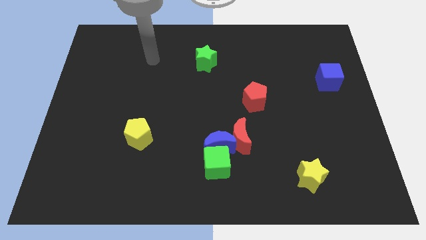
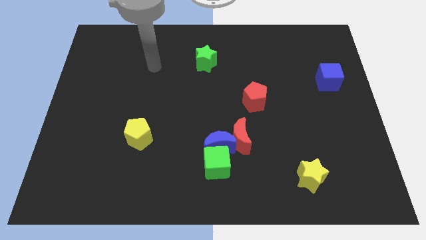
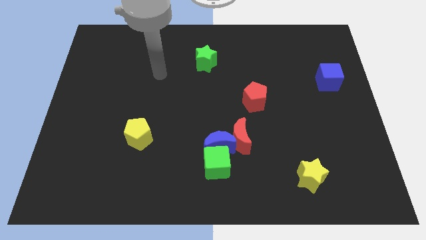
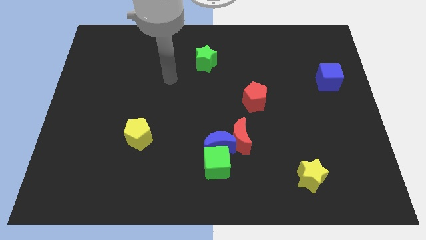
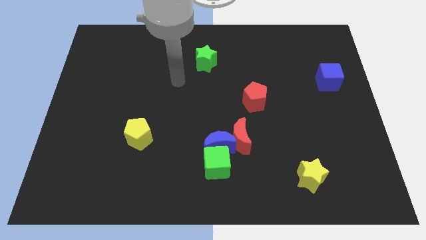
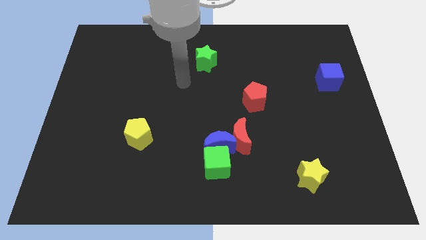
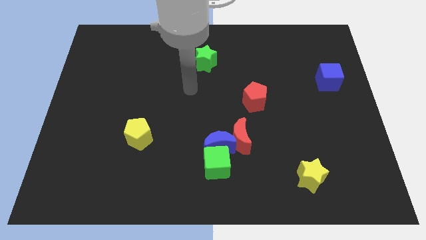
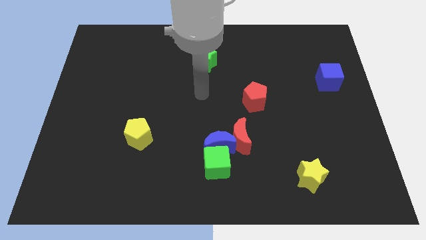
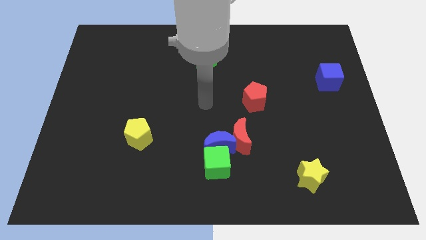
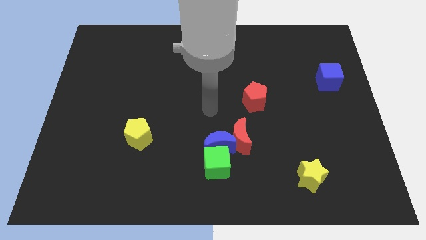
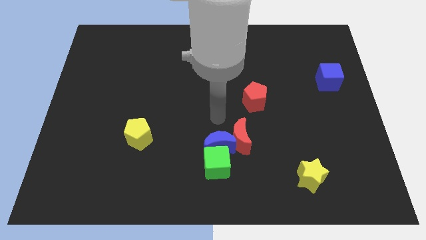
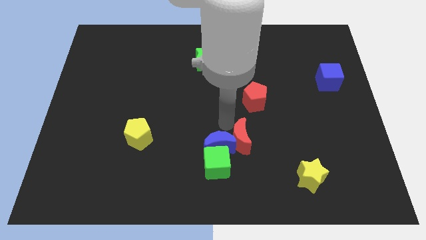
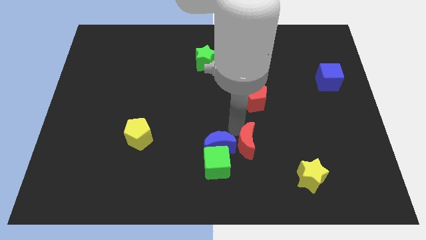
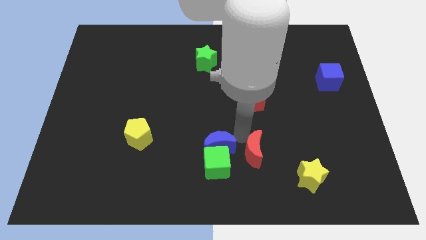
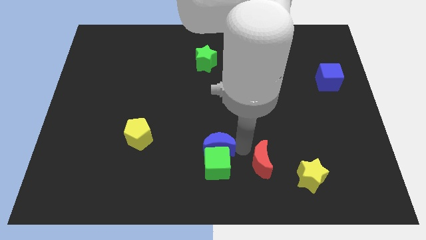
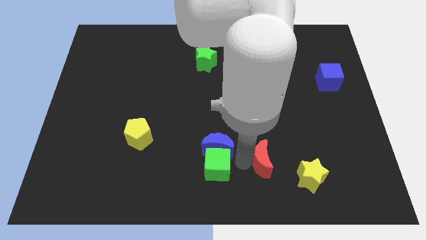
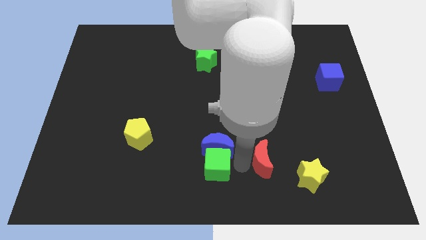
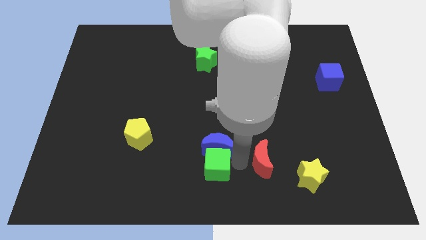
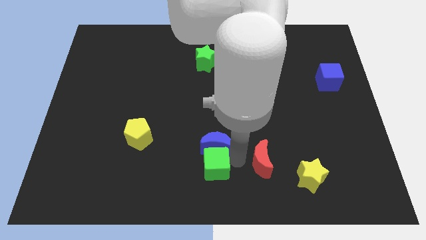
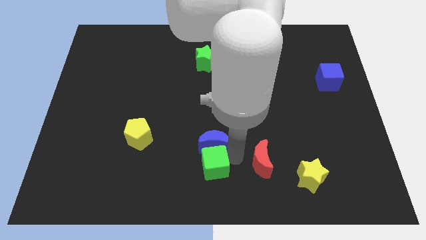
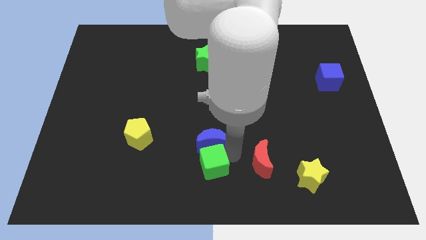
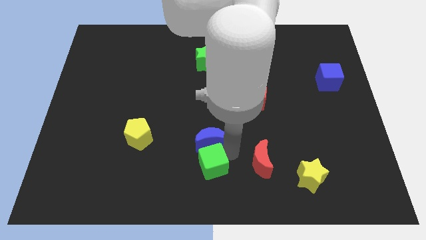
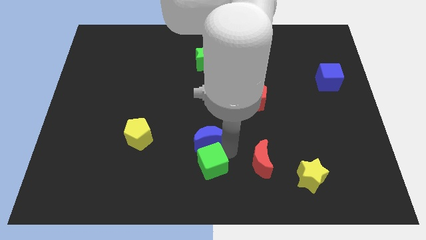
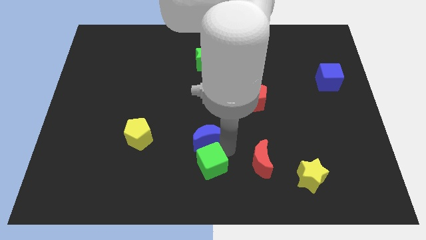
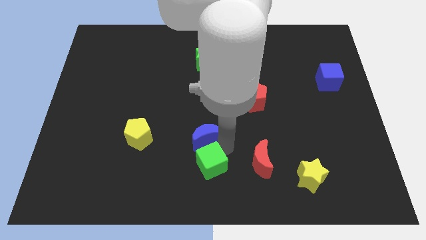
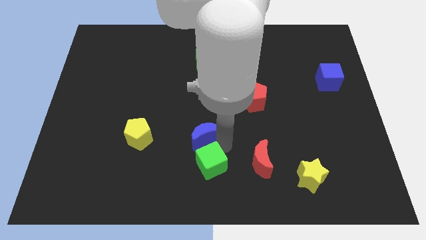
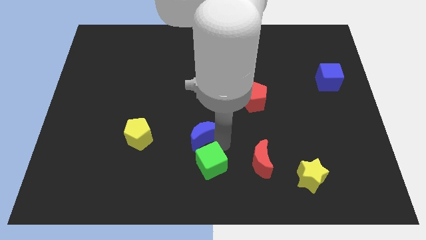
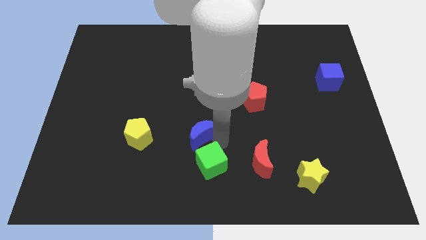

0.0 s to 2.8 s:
pull the blue moon apart from the green cube and red moon

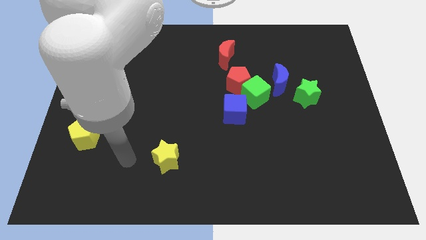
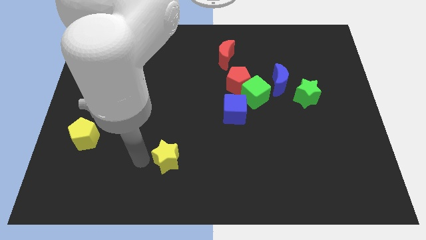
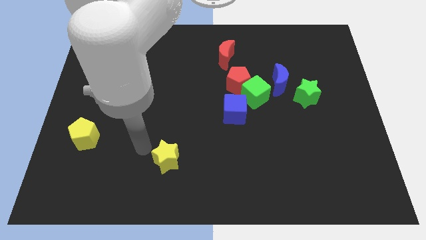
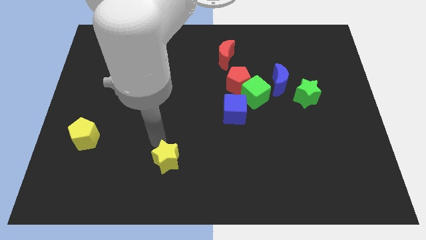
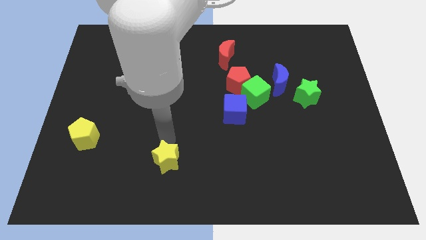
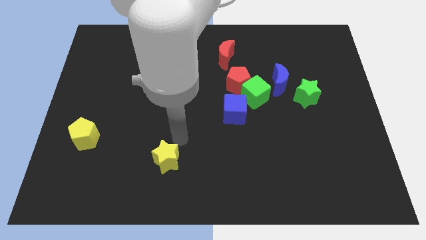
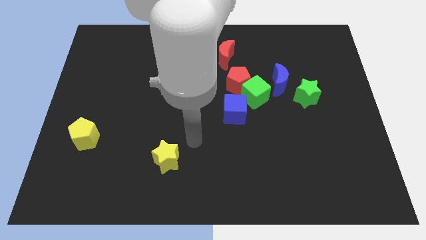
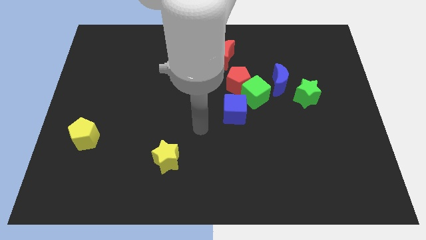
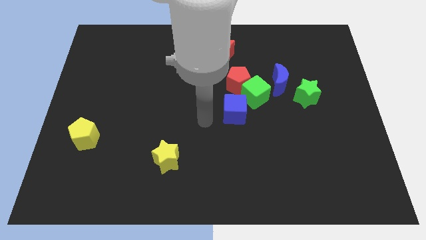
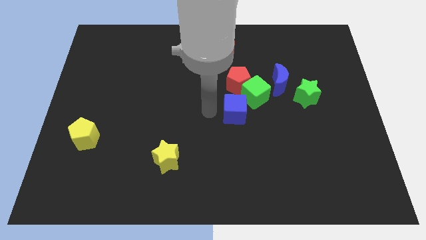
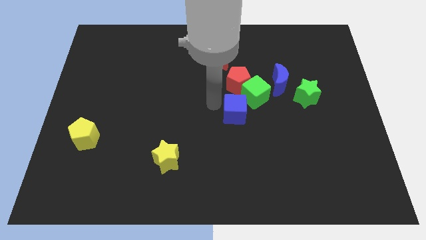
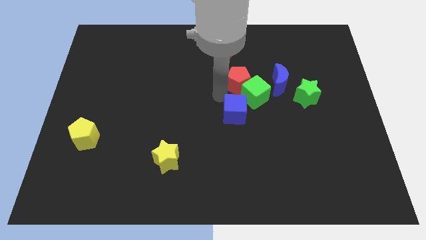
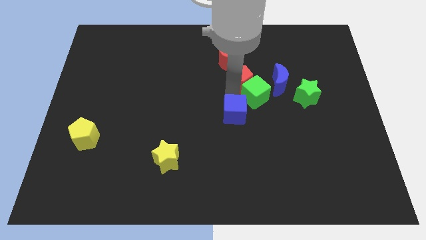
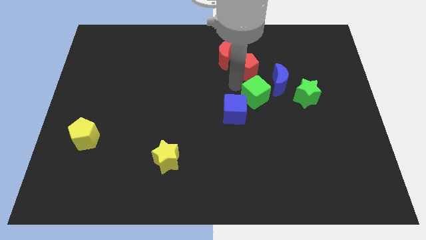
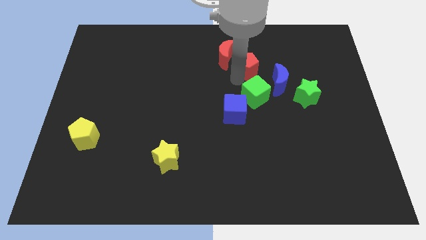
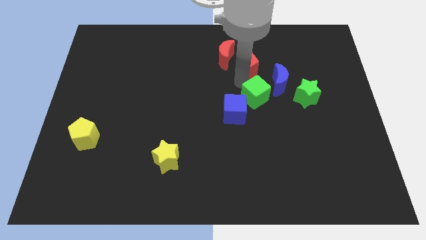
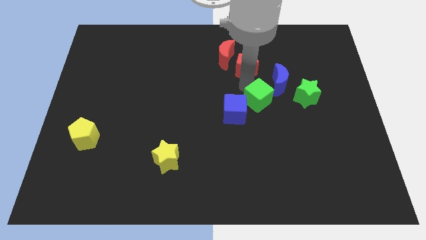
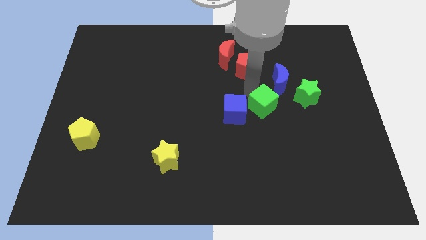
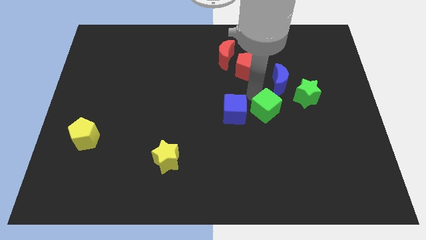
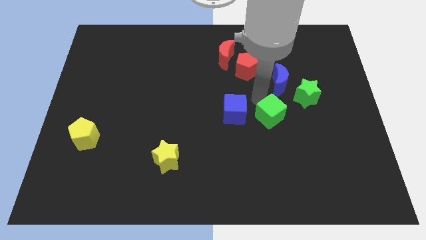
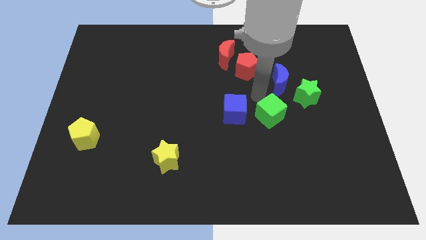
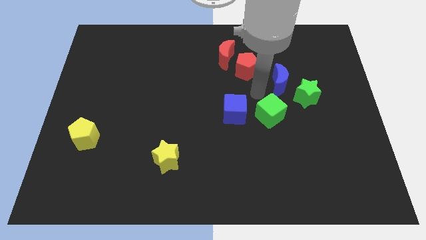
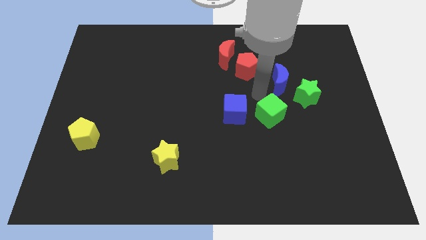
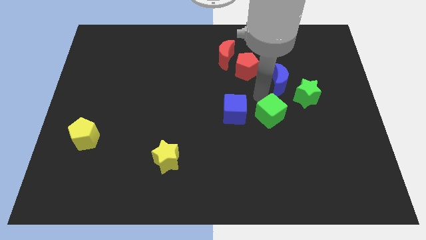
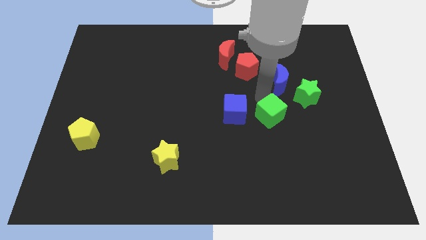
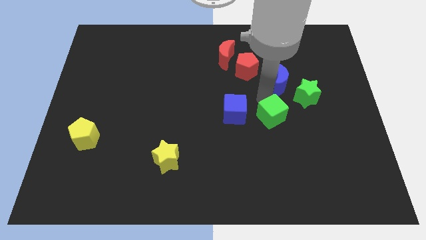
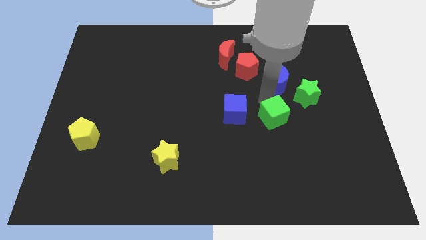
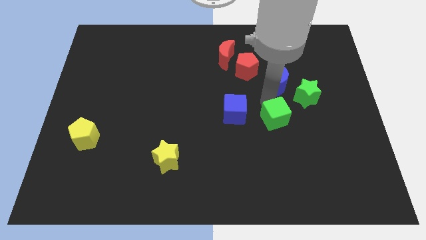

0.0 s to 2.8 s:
separate the green cube from the red pentagon, blue cube, and blue moon

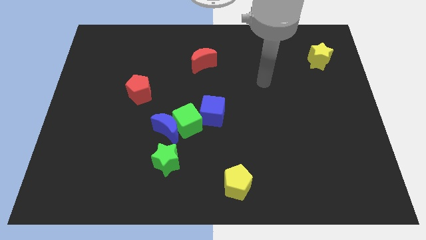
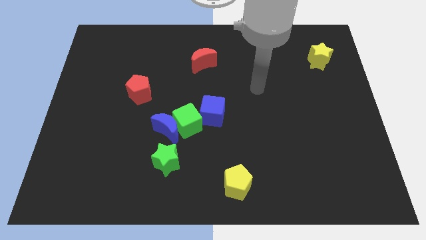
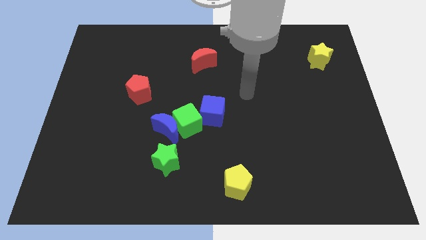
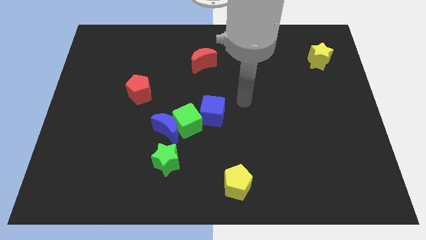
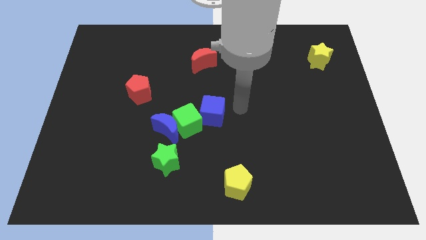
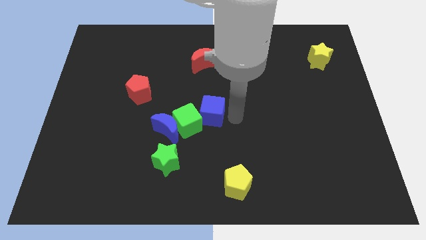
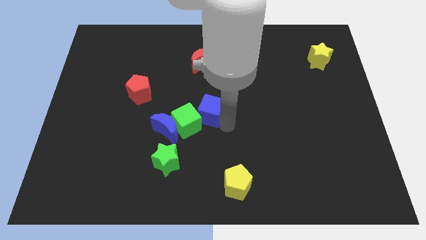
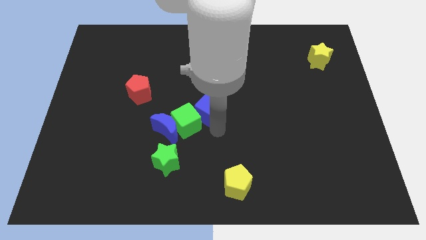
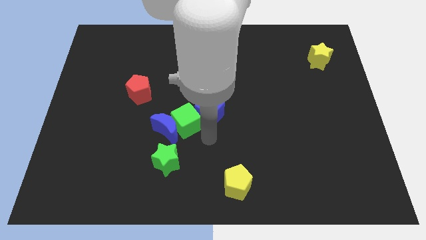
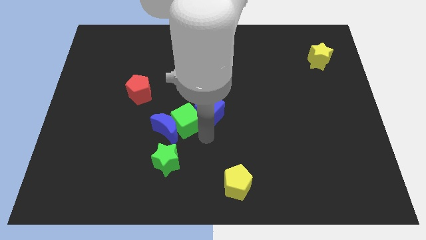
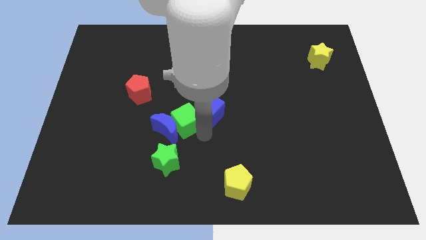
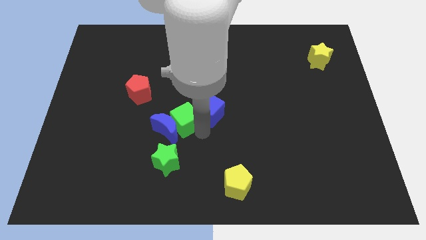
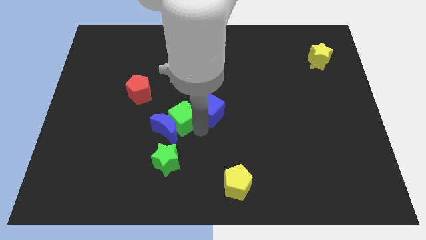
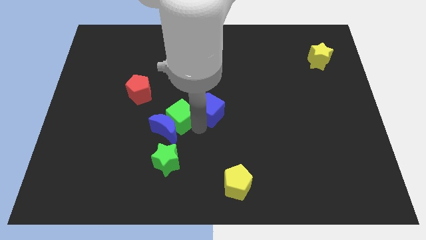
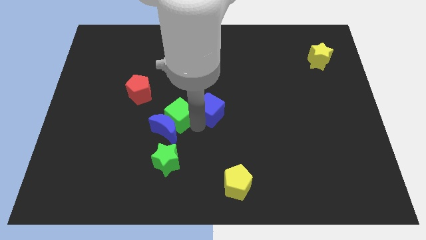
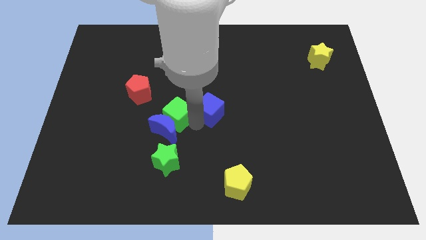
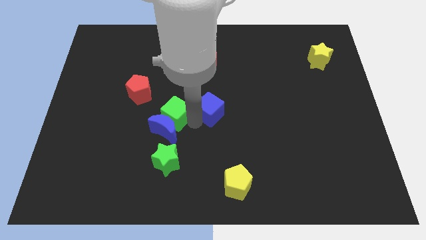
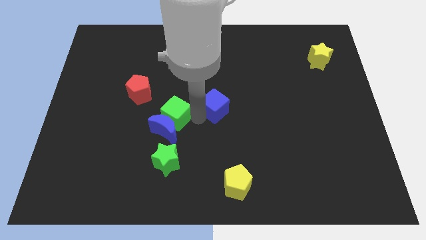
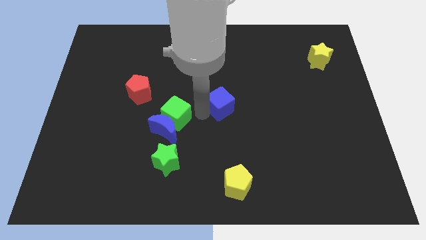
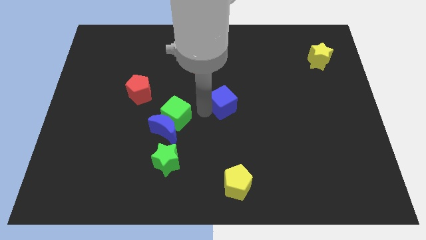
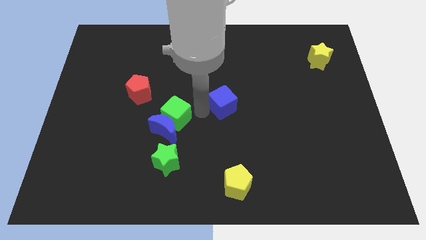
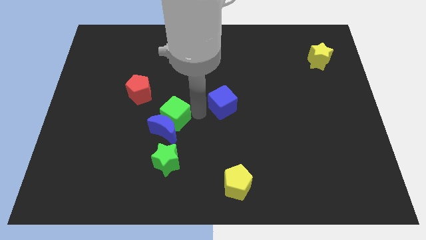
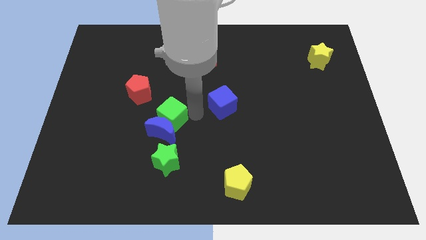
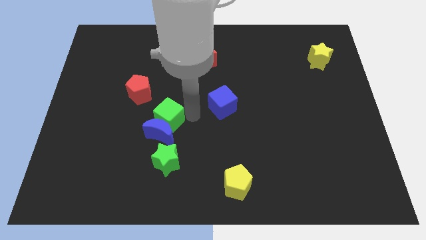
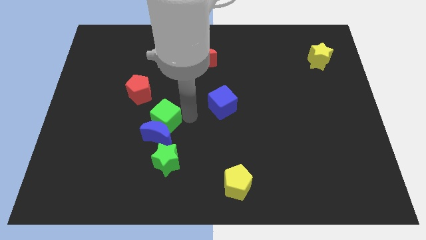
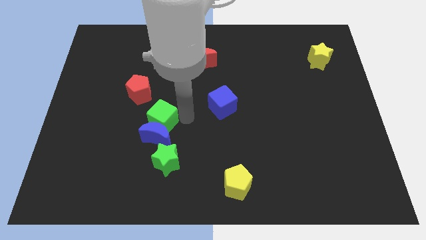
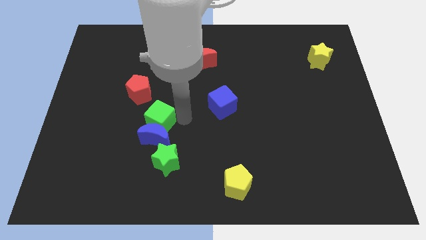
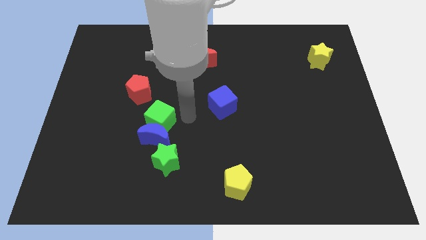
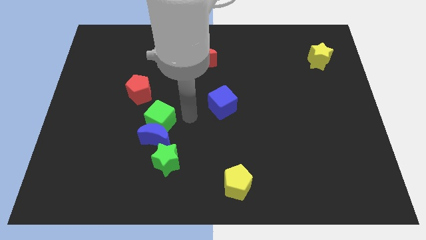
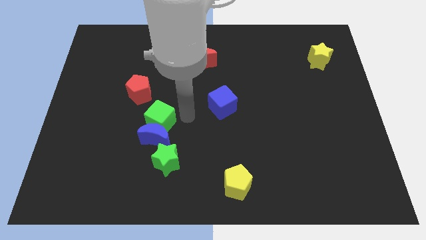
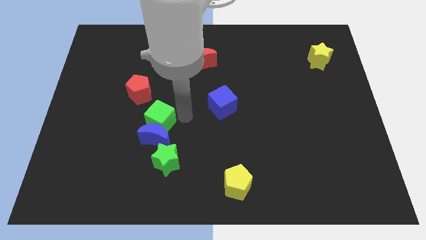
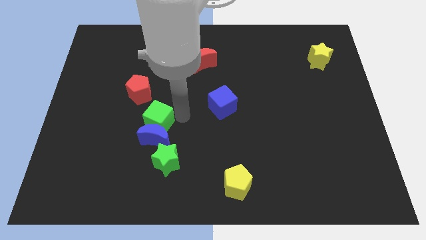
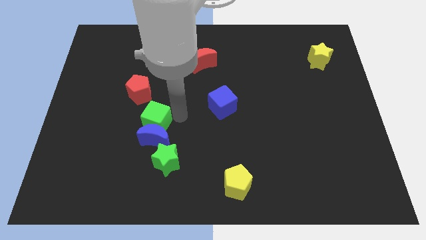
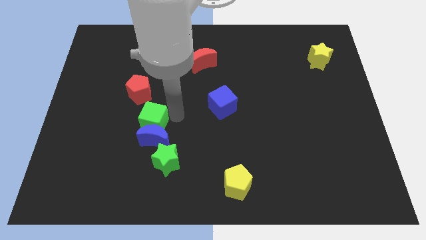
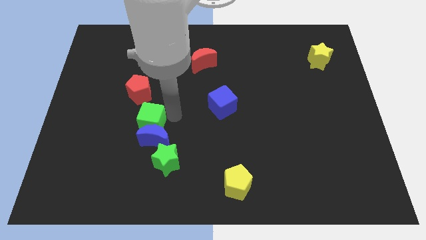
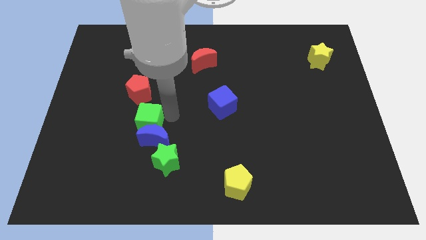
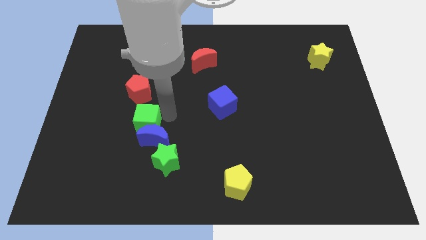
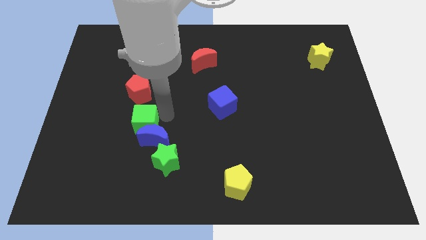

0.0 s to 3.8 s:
move the green cube away from the blue moon and blue cube
